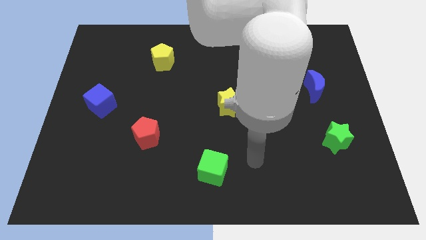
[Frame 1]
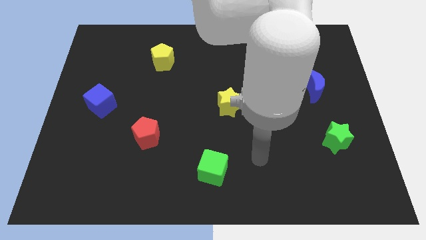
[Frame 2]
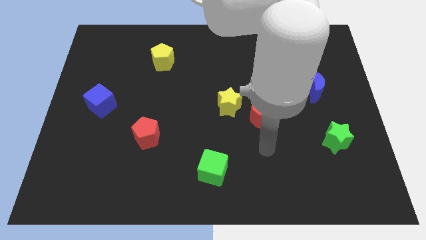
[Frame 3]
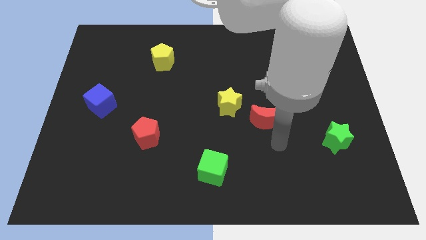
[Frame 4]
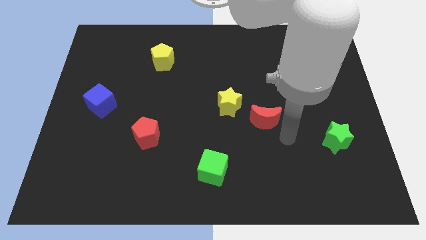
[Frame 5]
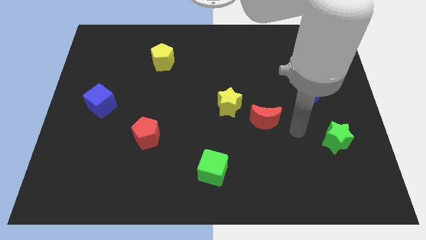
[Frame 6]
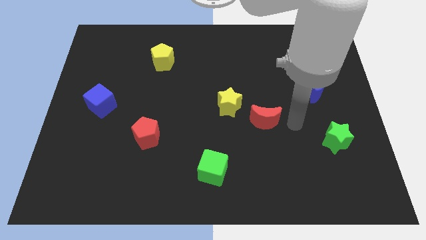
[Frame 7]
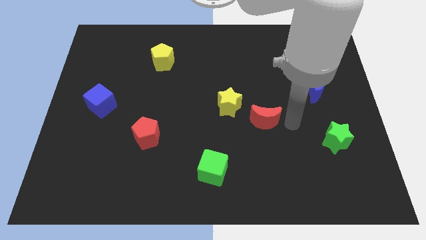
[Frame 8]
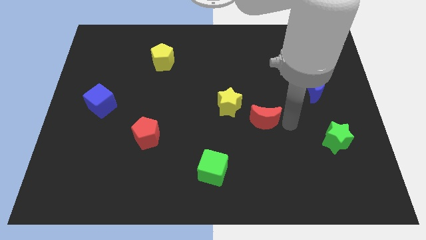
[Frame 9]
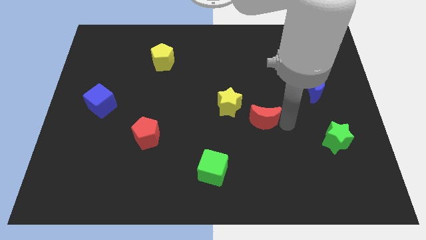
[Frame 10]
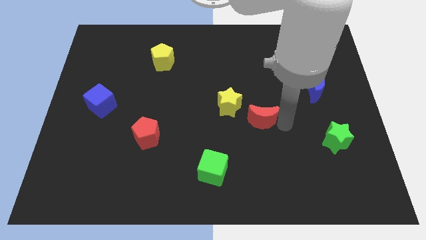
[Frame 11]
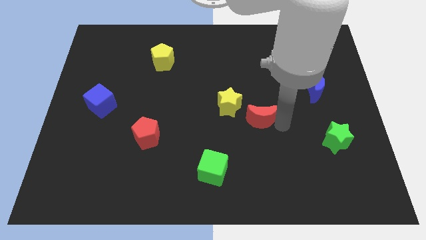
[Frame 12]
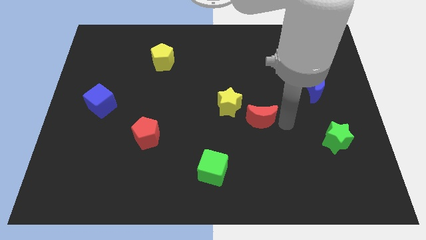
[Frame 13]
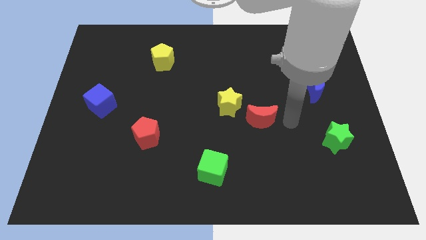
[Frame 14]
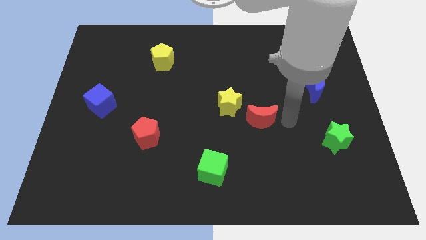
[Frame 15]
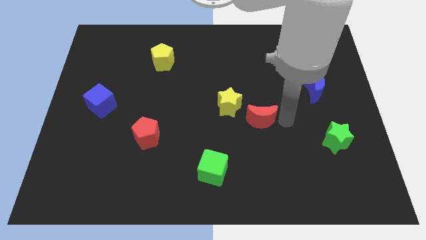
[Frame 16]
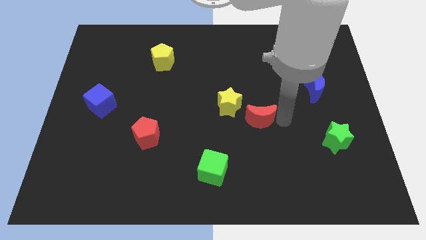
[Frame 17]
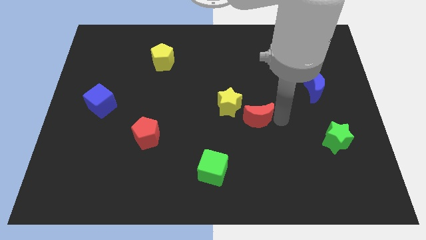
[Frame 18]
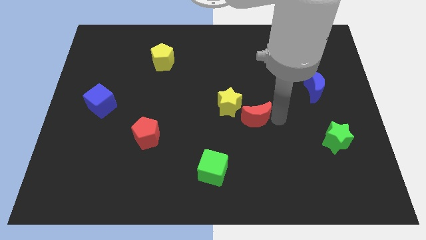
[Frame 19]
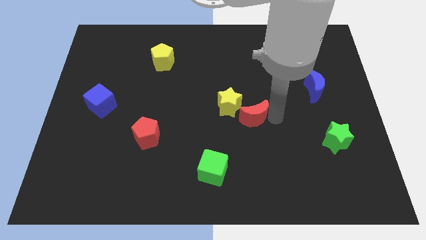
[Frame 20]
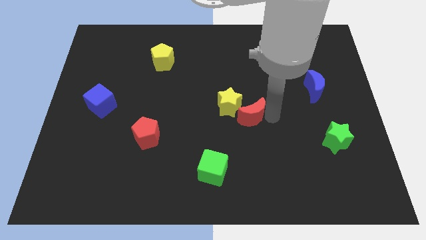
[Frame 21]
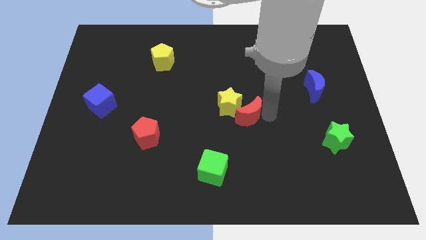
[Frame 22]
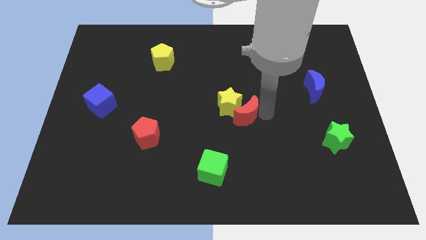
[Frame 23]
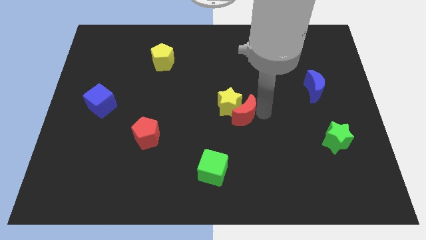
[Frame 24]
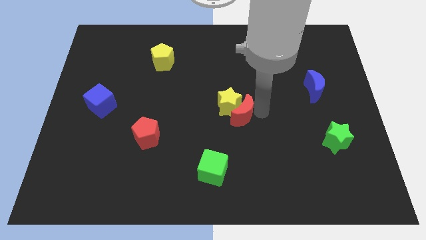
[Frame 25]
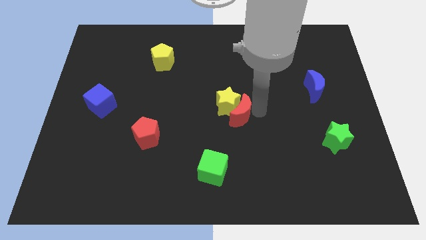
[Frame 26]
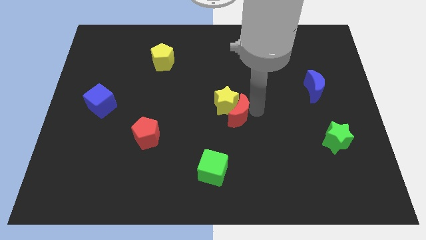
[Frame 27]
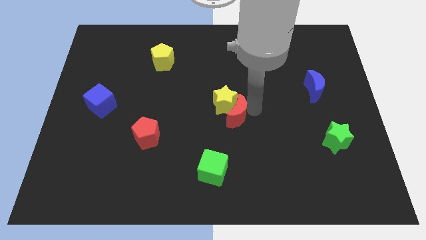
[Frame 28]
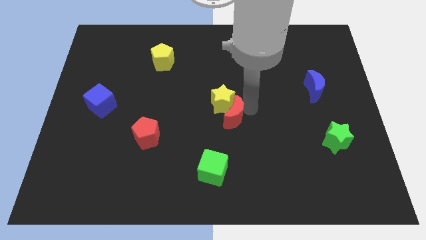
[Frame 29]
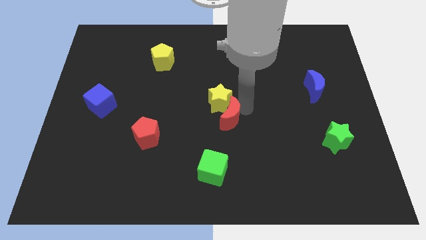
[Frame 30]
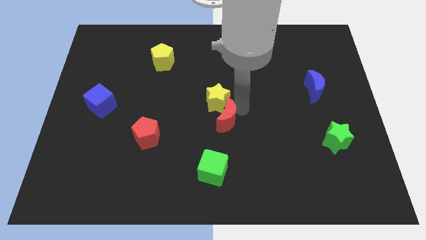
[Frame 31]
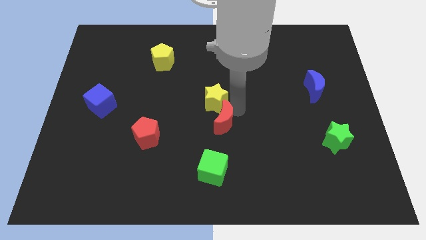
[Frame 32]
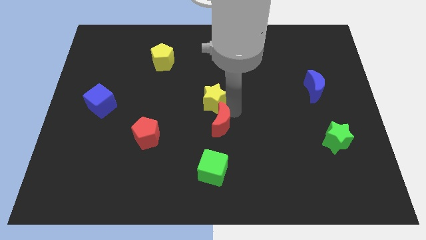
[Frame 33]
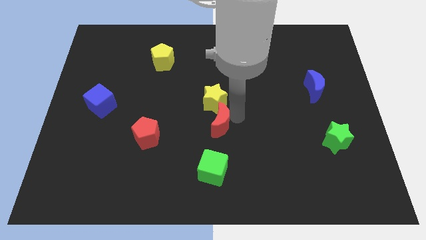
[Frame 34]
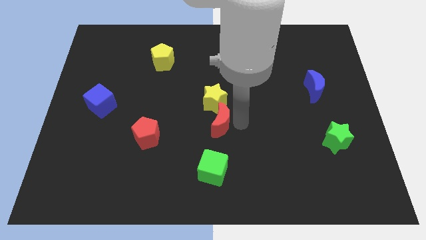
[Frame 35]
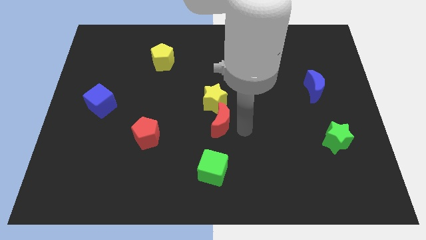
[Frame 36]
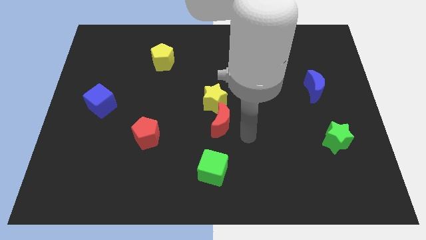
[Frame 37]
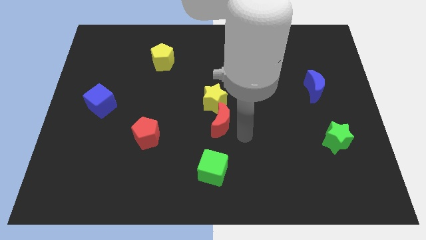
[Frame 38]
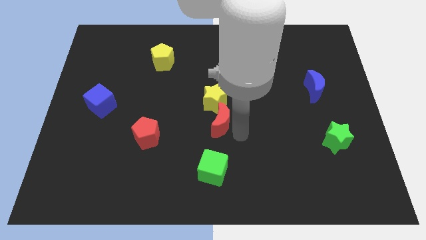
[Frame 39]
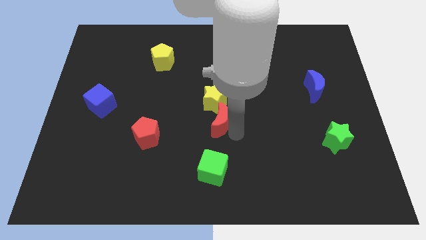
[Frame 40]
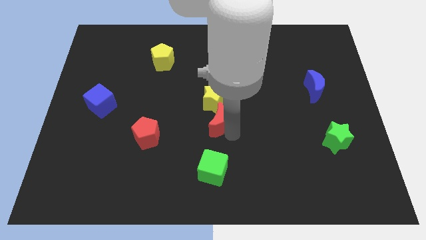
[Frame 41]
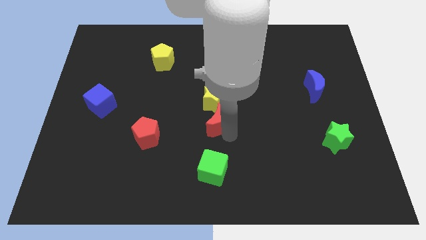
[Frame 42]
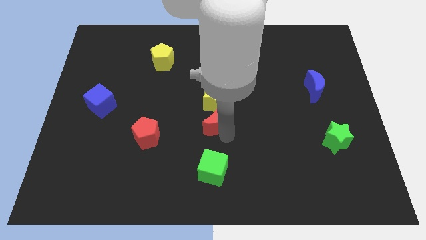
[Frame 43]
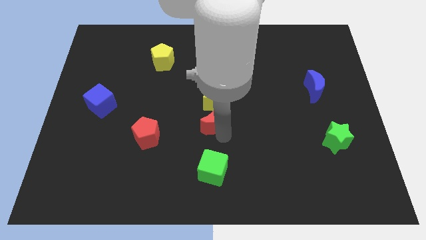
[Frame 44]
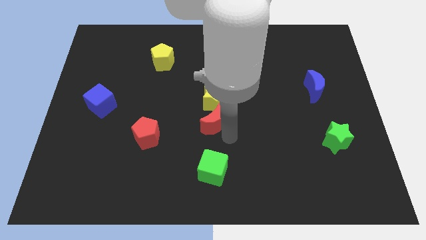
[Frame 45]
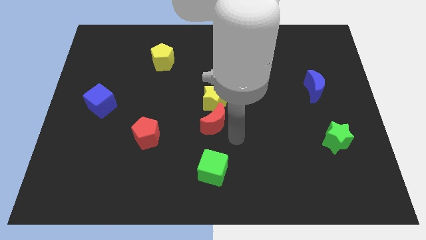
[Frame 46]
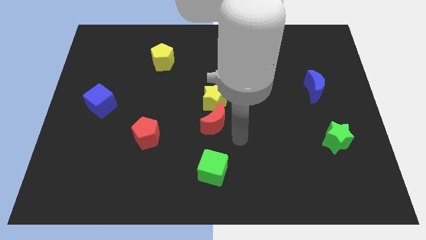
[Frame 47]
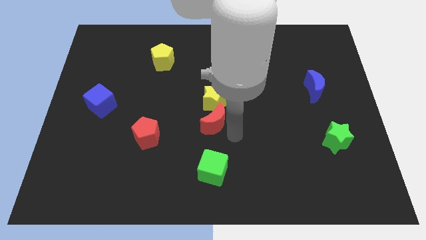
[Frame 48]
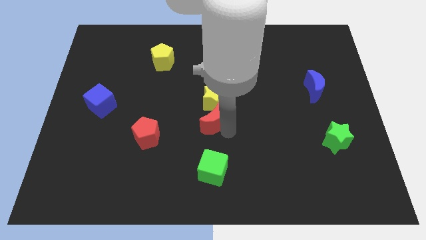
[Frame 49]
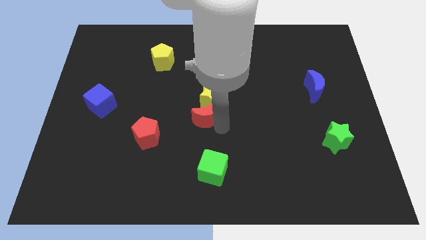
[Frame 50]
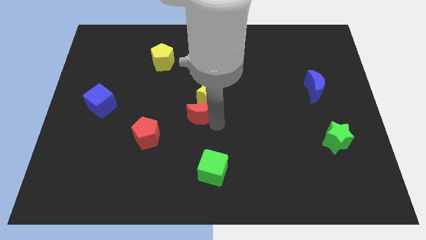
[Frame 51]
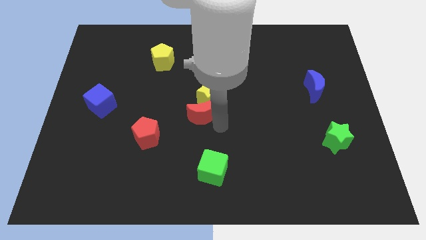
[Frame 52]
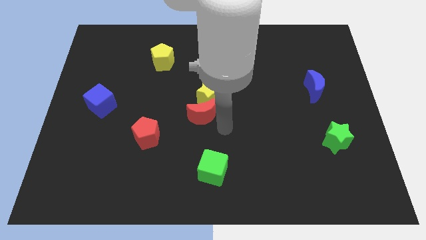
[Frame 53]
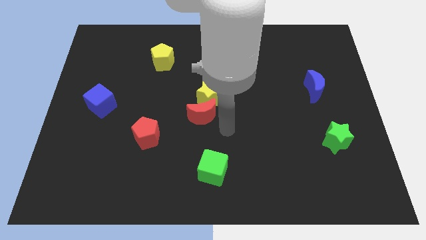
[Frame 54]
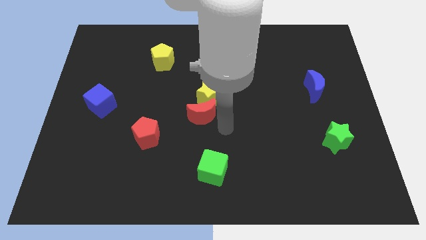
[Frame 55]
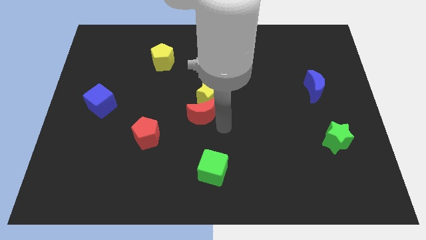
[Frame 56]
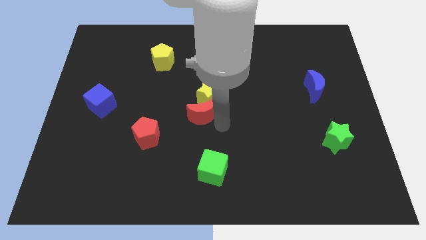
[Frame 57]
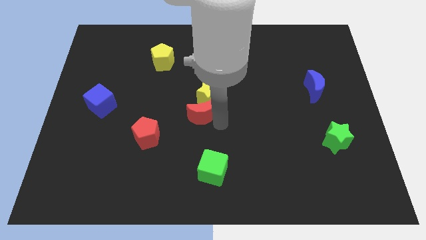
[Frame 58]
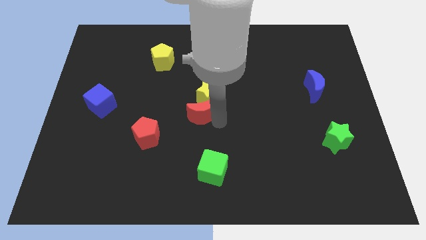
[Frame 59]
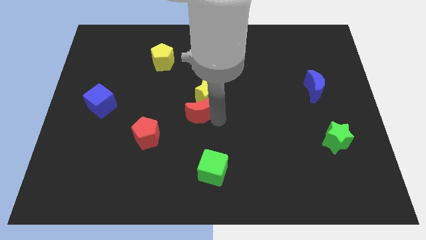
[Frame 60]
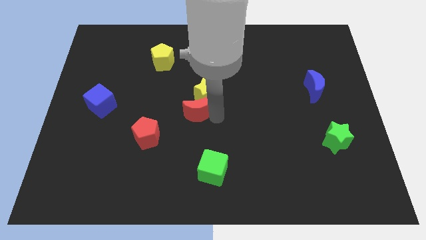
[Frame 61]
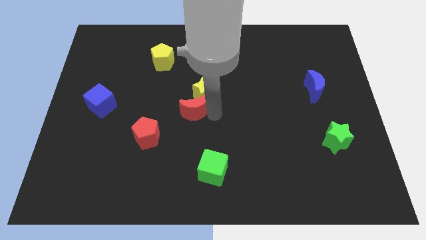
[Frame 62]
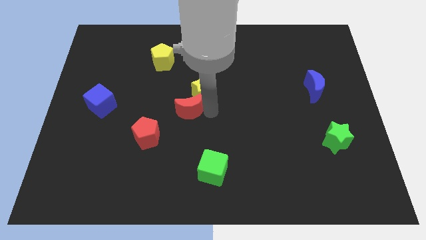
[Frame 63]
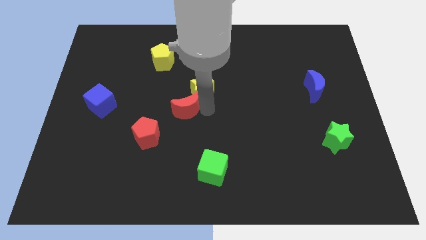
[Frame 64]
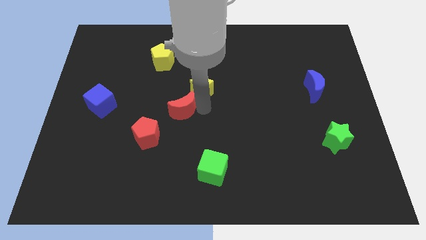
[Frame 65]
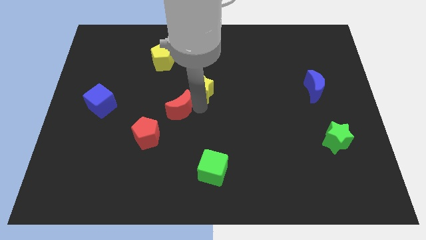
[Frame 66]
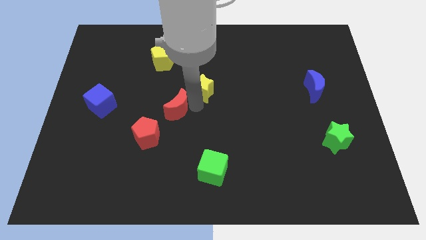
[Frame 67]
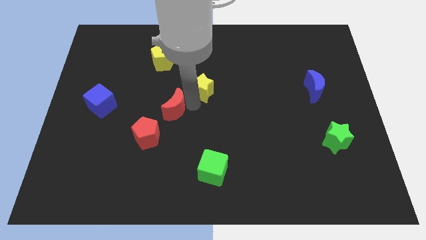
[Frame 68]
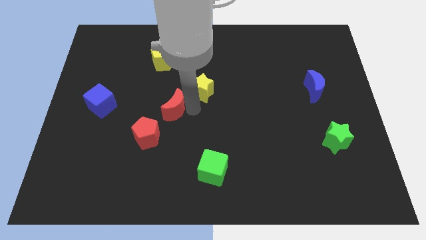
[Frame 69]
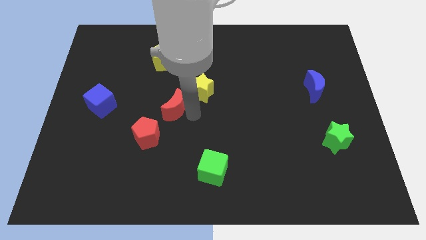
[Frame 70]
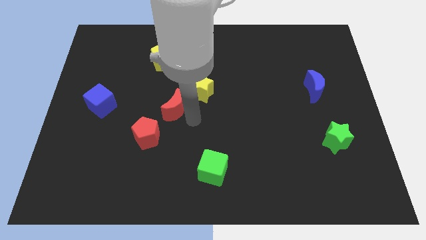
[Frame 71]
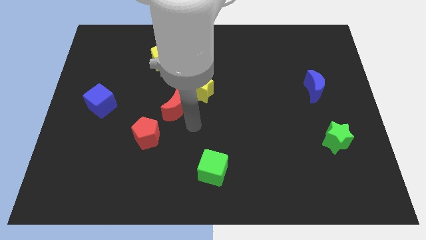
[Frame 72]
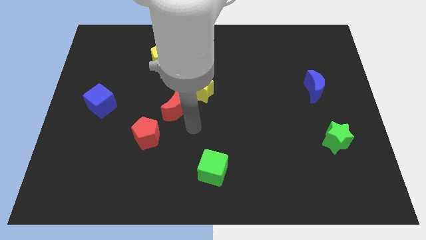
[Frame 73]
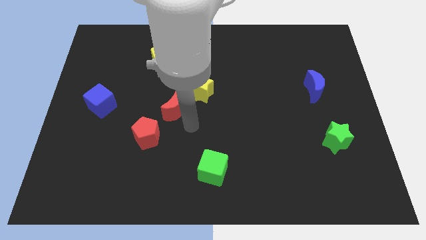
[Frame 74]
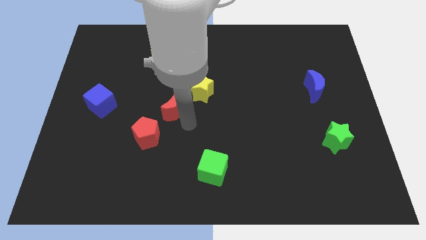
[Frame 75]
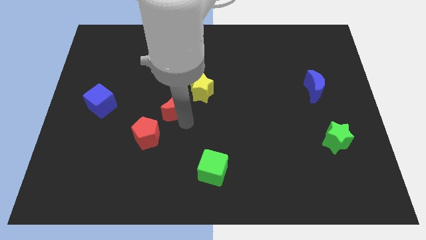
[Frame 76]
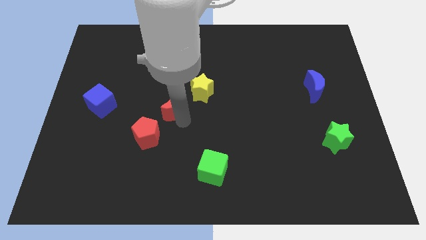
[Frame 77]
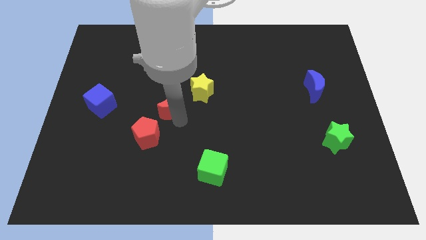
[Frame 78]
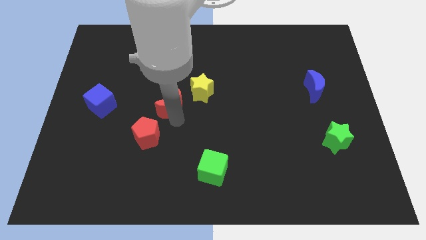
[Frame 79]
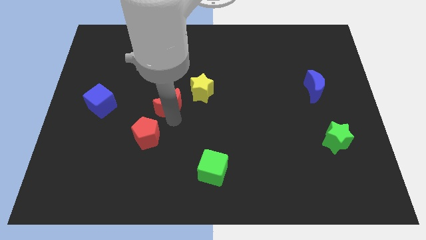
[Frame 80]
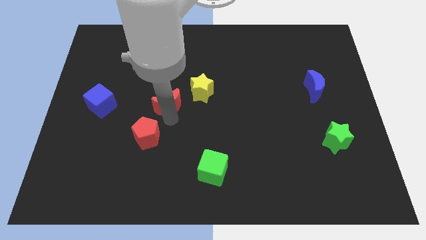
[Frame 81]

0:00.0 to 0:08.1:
slide the red moon to the bottom side of the yellow pentagon
